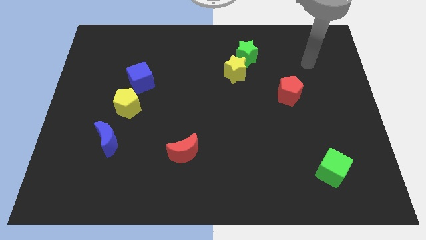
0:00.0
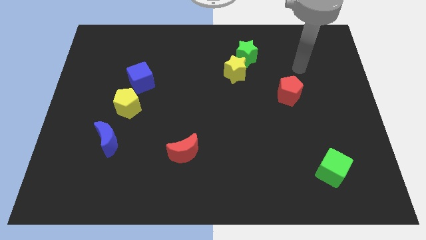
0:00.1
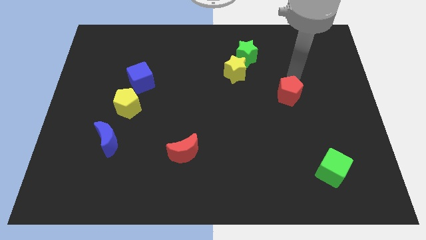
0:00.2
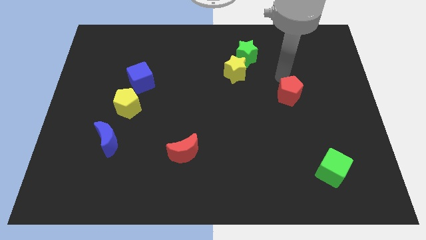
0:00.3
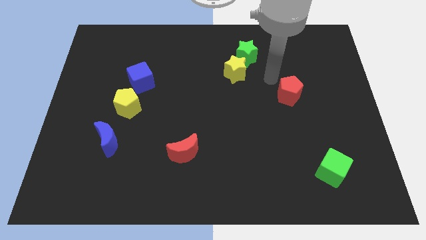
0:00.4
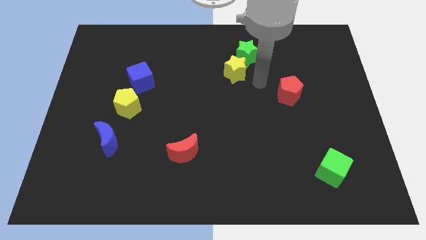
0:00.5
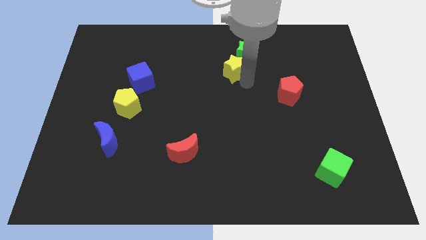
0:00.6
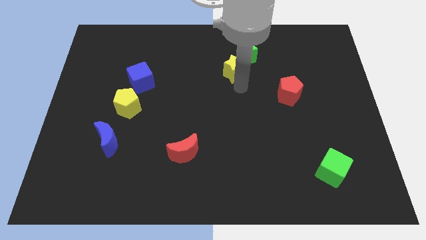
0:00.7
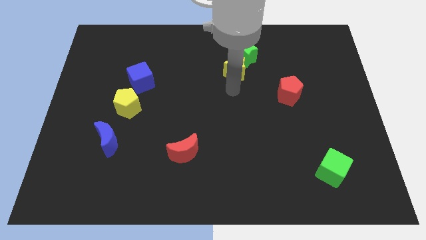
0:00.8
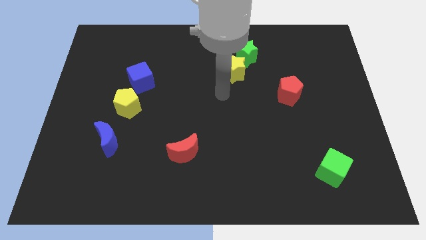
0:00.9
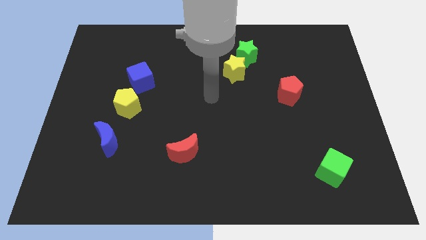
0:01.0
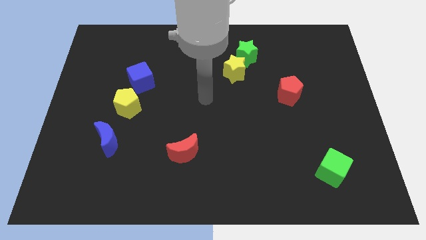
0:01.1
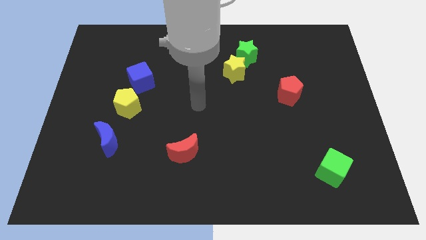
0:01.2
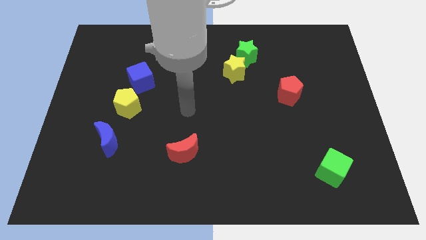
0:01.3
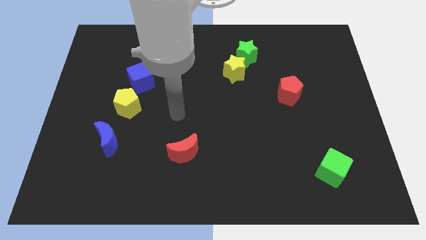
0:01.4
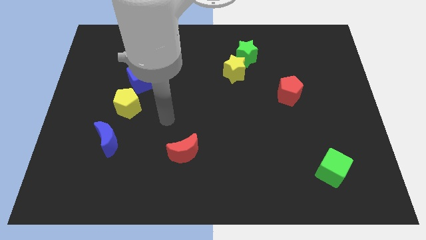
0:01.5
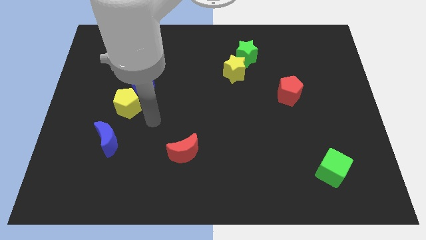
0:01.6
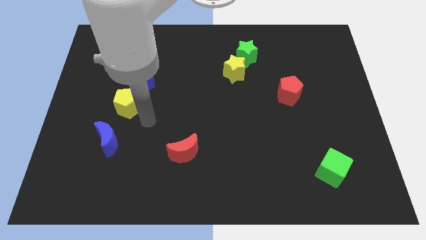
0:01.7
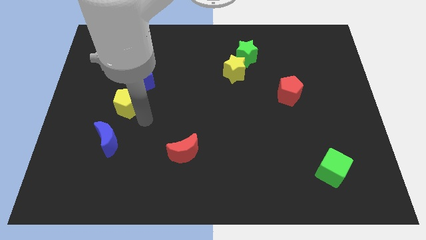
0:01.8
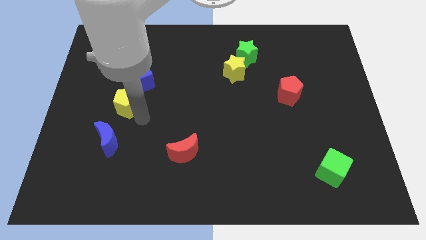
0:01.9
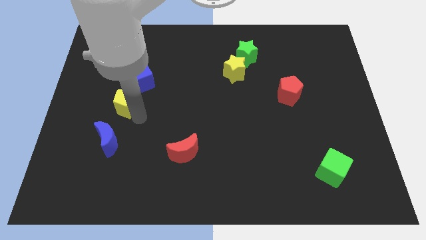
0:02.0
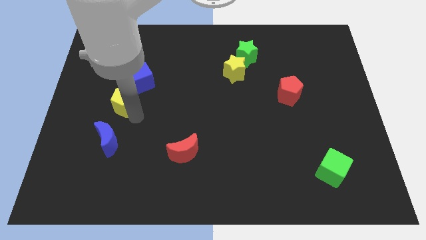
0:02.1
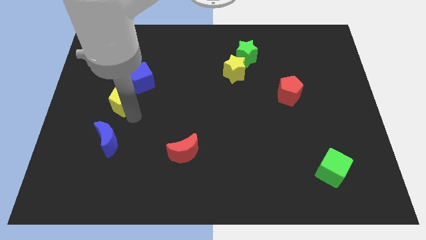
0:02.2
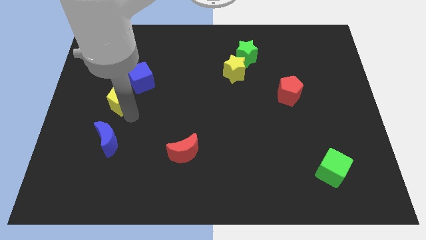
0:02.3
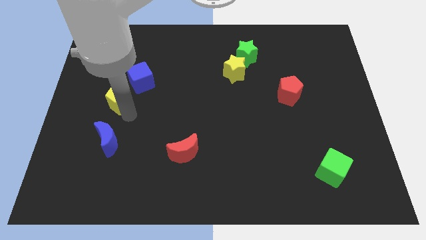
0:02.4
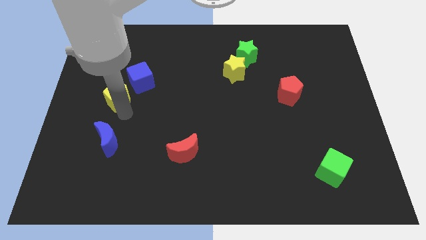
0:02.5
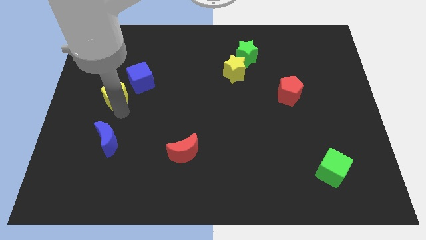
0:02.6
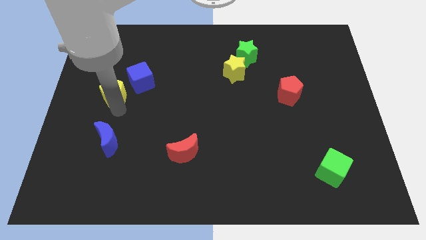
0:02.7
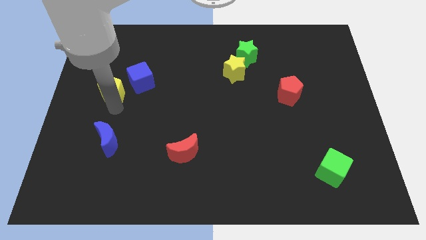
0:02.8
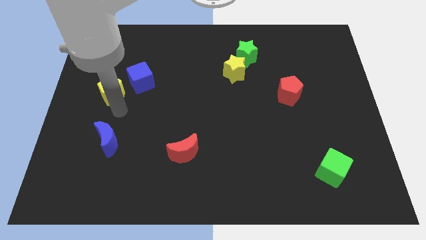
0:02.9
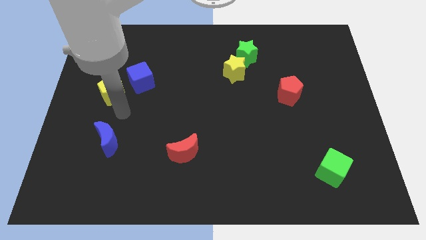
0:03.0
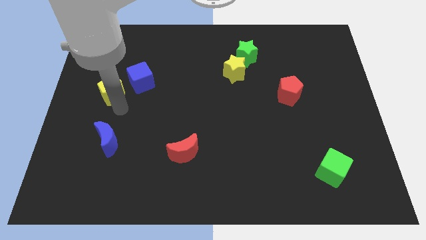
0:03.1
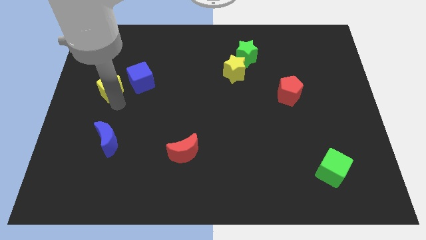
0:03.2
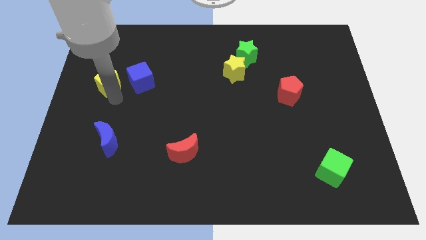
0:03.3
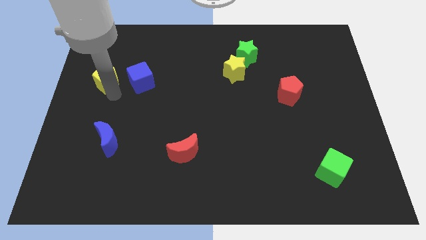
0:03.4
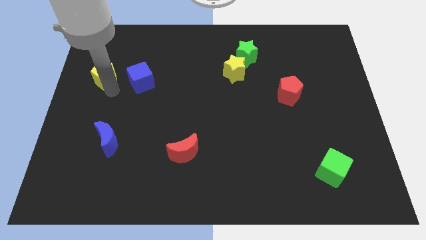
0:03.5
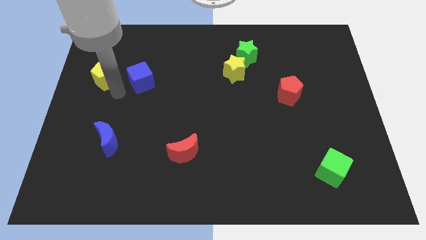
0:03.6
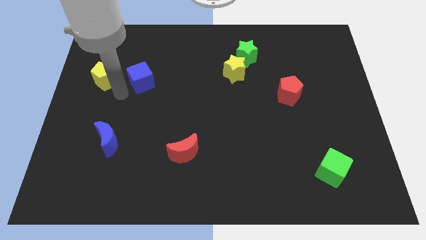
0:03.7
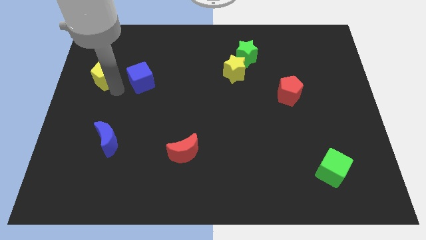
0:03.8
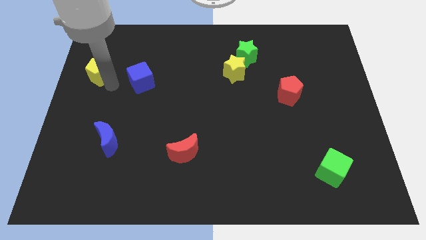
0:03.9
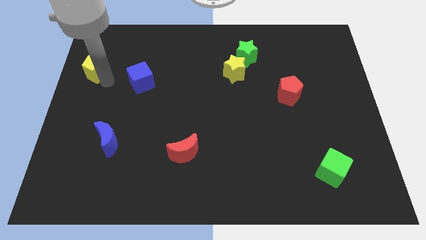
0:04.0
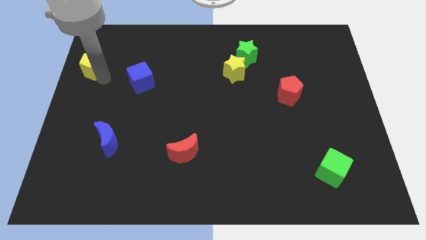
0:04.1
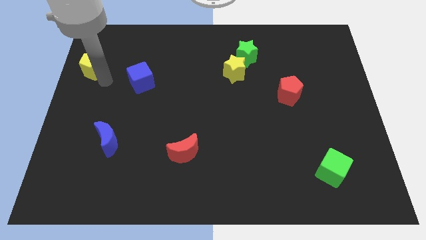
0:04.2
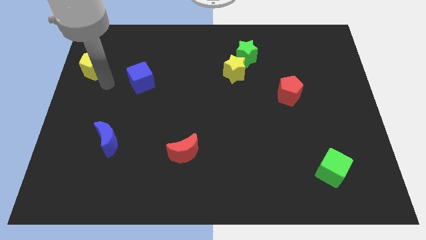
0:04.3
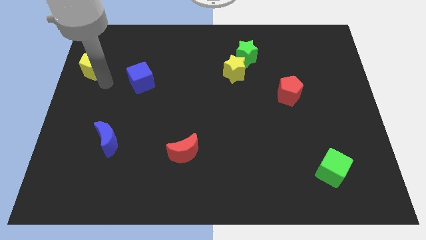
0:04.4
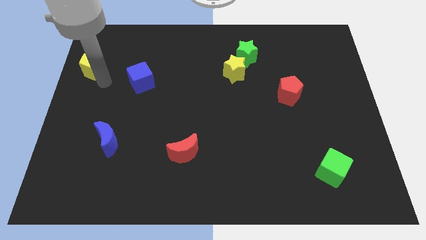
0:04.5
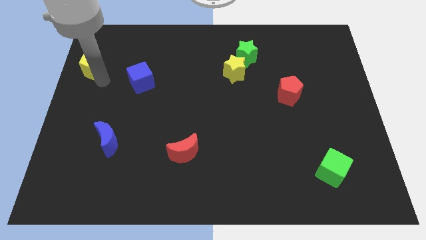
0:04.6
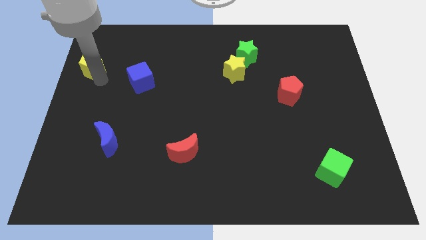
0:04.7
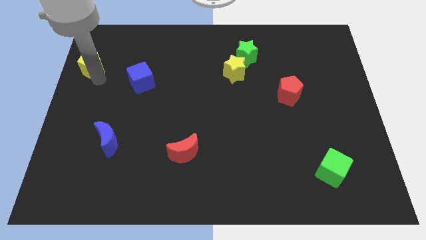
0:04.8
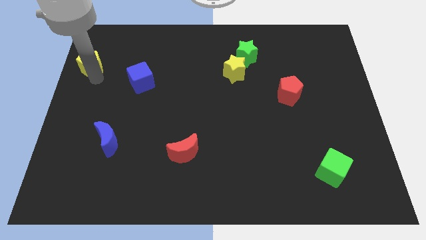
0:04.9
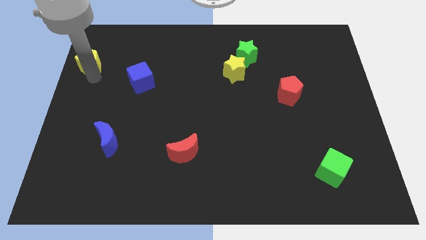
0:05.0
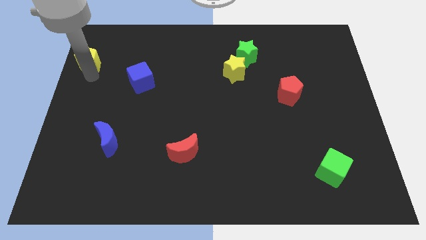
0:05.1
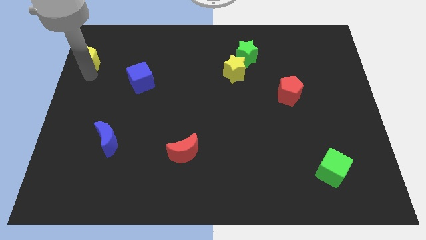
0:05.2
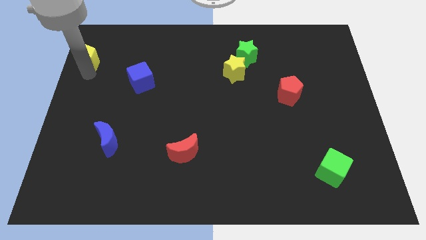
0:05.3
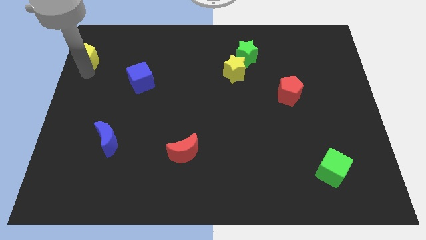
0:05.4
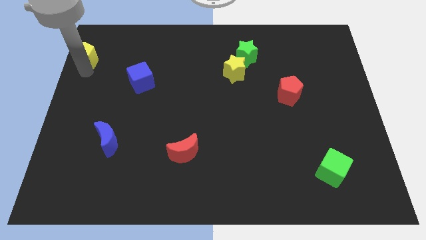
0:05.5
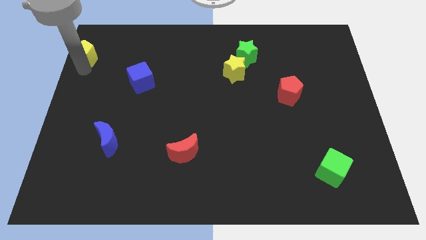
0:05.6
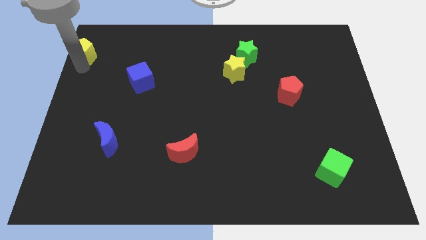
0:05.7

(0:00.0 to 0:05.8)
move the yellow pentagon to the top left

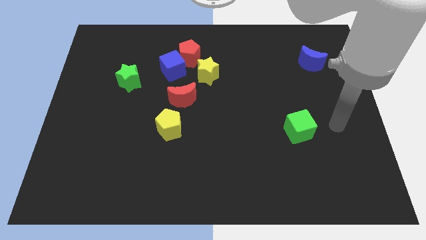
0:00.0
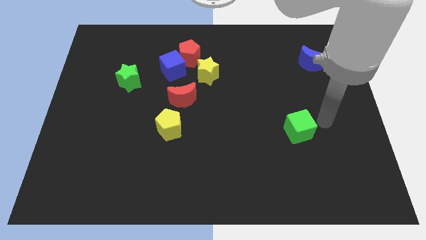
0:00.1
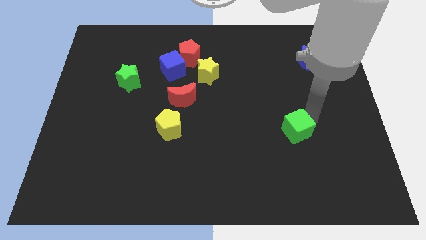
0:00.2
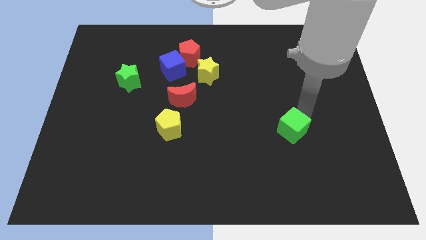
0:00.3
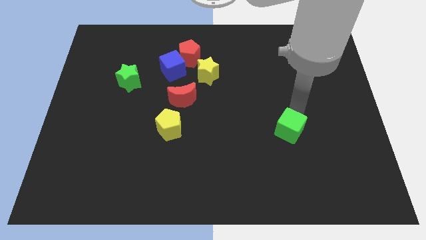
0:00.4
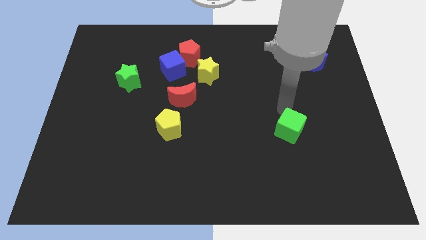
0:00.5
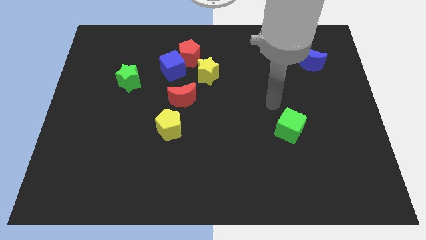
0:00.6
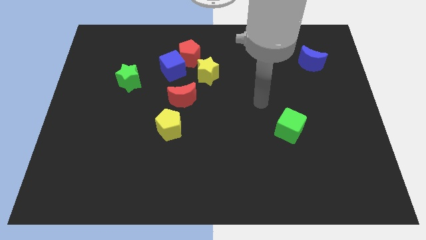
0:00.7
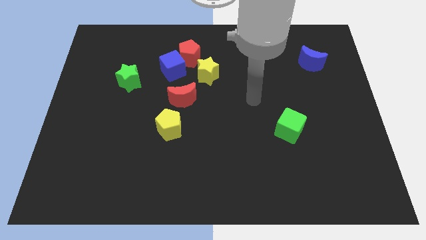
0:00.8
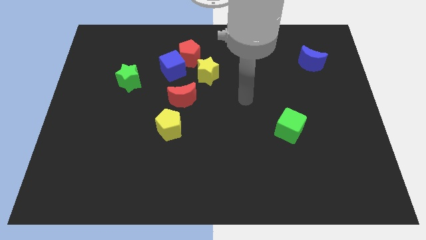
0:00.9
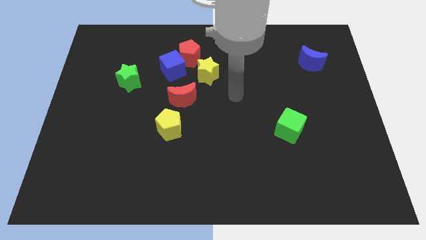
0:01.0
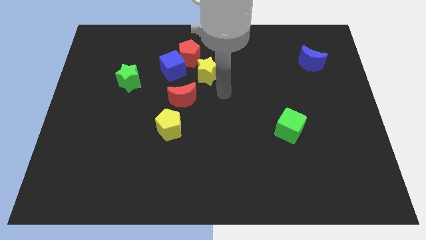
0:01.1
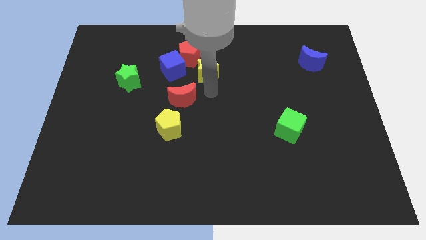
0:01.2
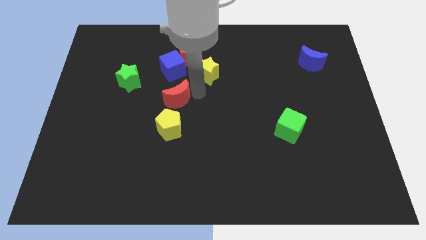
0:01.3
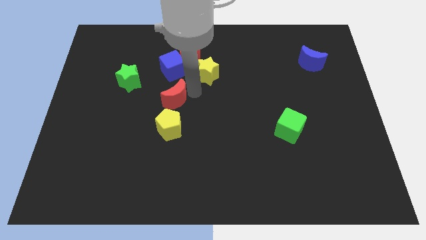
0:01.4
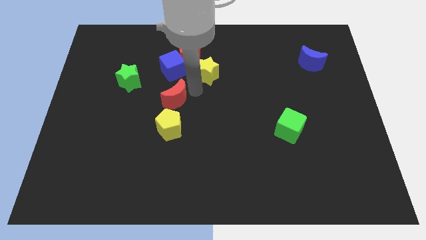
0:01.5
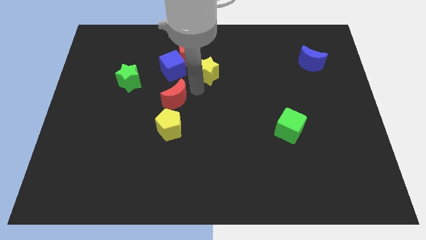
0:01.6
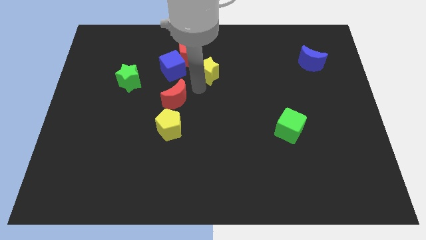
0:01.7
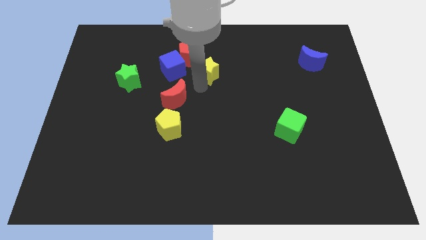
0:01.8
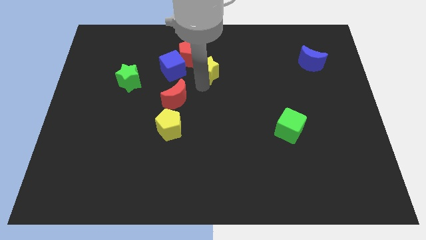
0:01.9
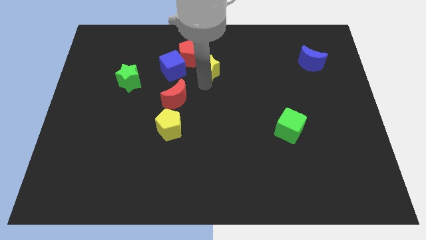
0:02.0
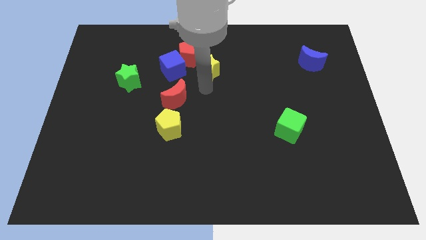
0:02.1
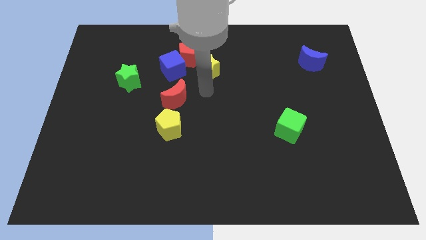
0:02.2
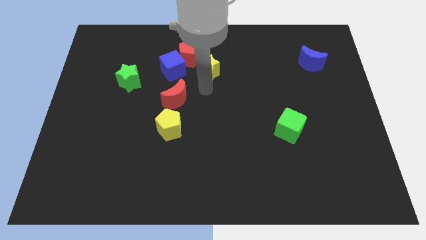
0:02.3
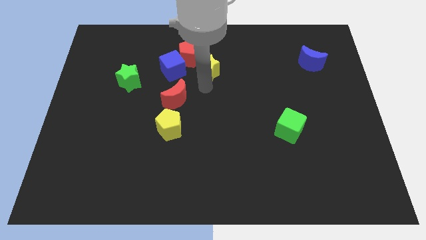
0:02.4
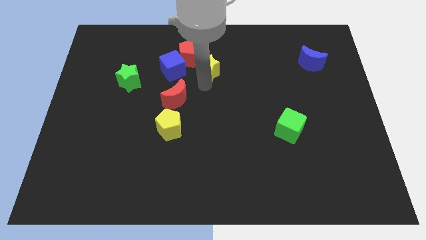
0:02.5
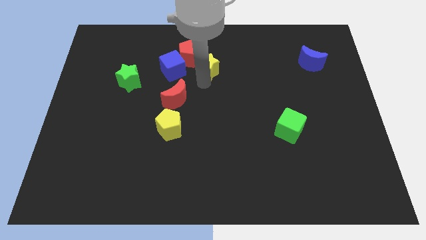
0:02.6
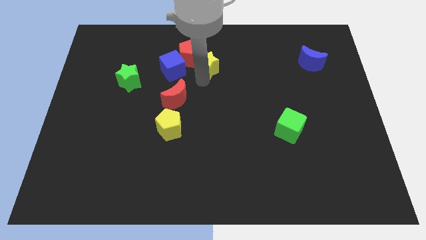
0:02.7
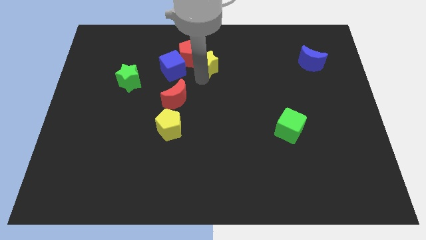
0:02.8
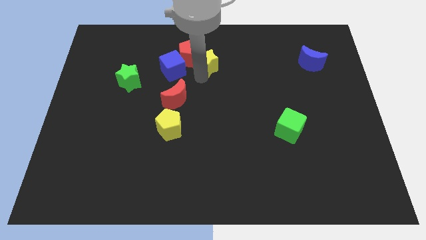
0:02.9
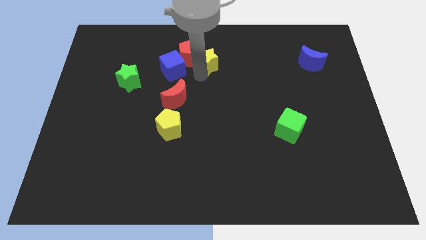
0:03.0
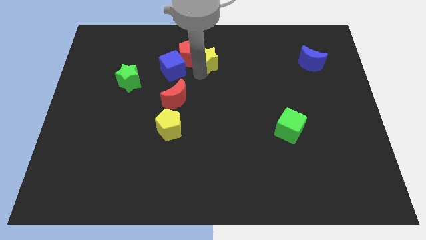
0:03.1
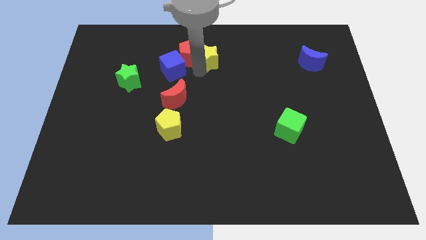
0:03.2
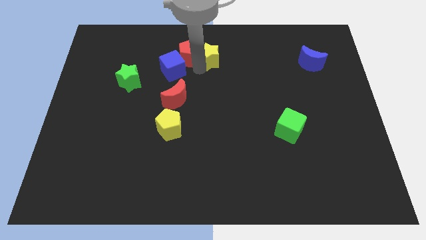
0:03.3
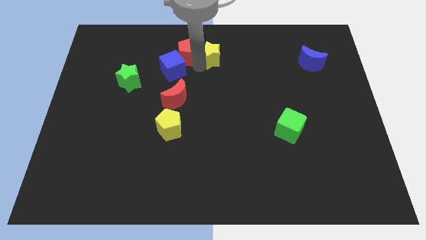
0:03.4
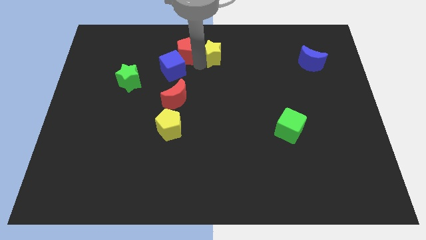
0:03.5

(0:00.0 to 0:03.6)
move the yellow star to the towards your base
